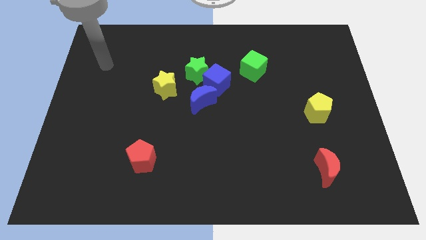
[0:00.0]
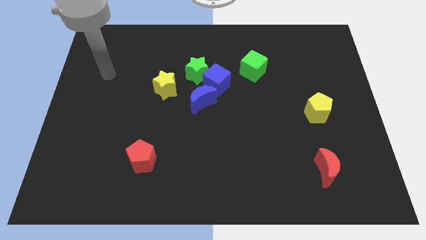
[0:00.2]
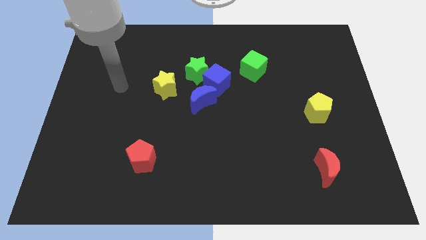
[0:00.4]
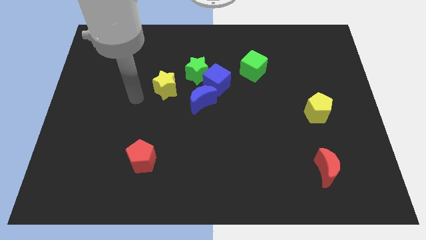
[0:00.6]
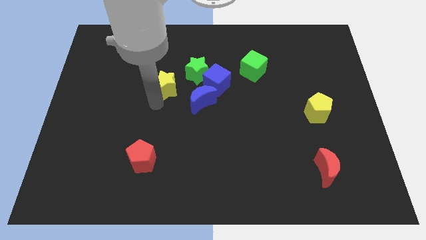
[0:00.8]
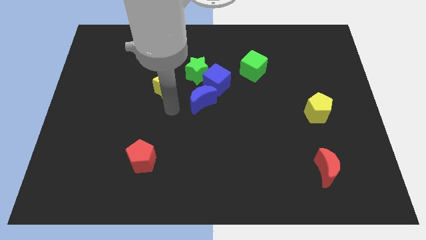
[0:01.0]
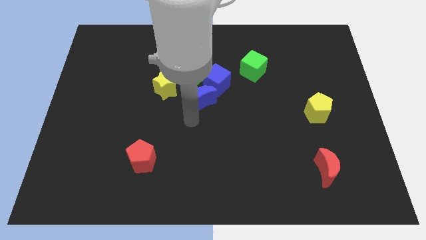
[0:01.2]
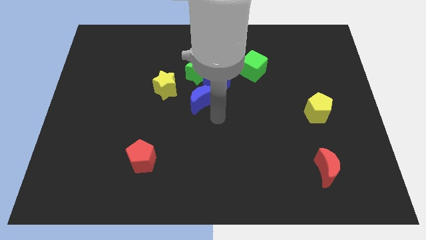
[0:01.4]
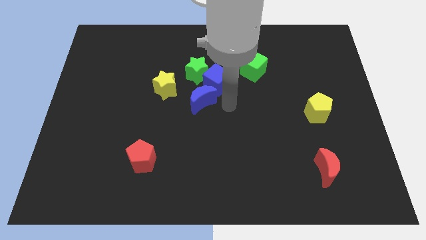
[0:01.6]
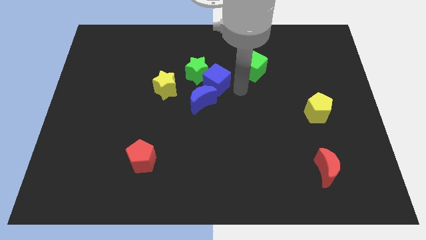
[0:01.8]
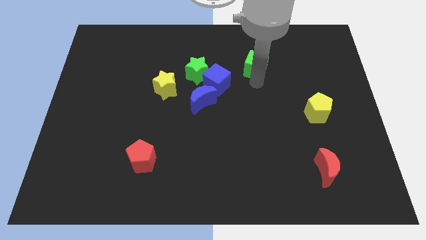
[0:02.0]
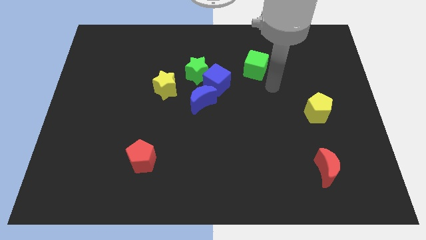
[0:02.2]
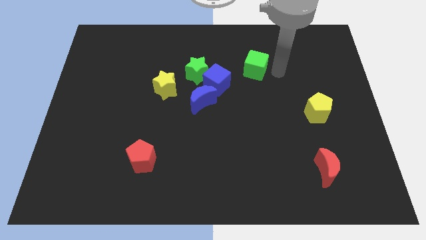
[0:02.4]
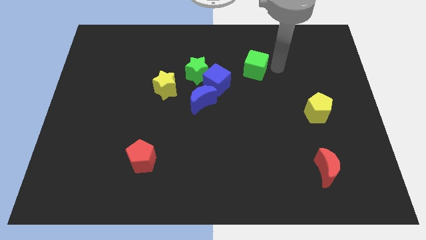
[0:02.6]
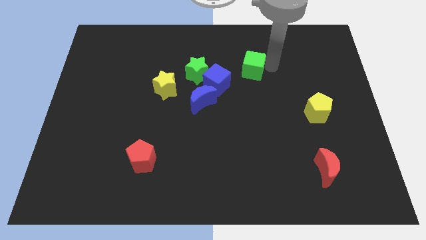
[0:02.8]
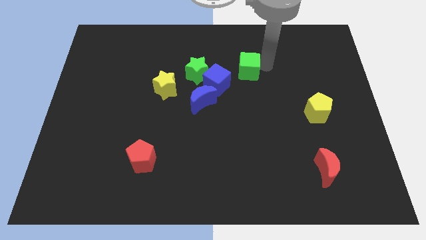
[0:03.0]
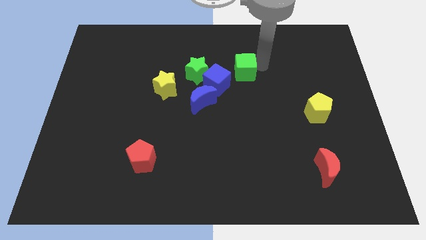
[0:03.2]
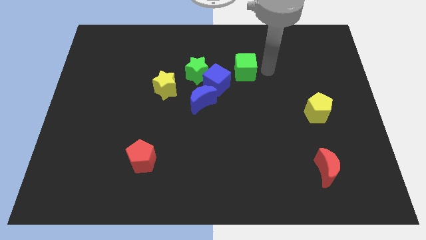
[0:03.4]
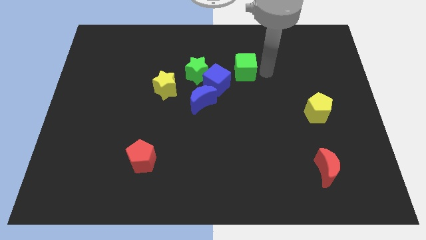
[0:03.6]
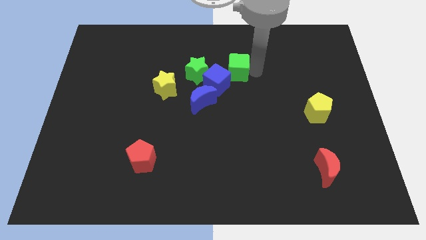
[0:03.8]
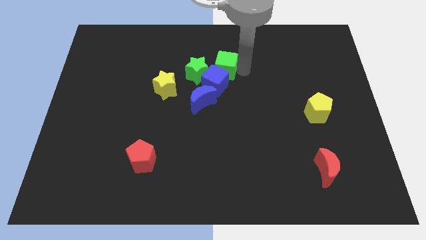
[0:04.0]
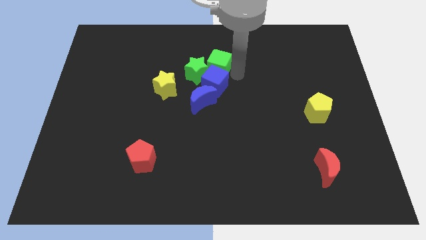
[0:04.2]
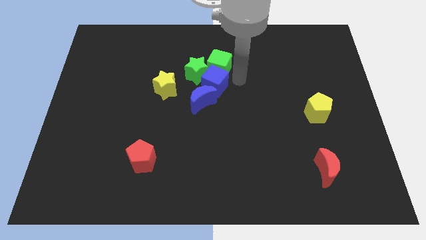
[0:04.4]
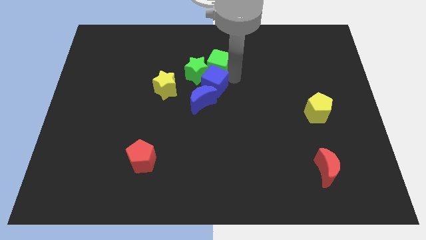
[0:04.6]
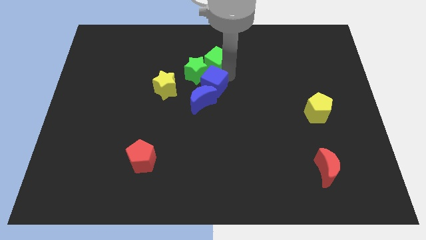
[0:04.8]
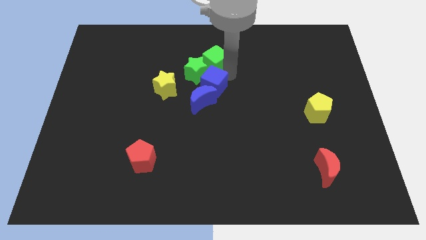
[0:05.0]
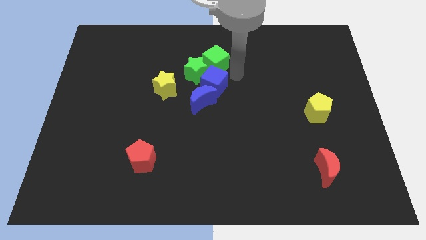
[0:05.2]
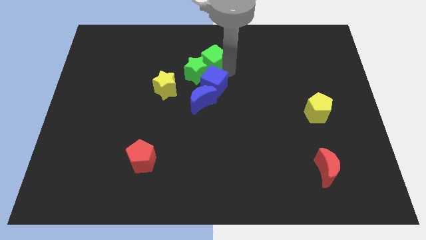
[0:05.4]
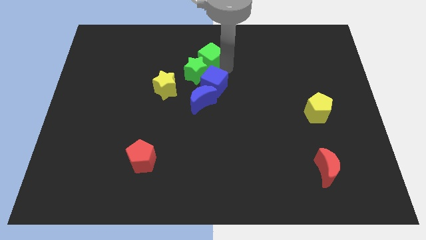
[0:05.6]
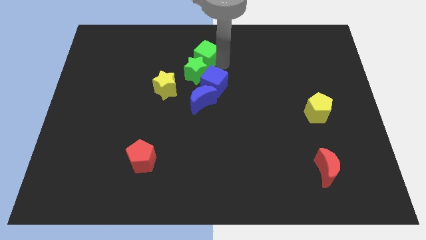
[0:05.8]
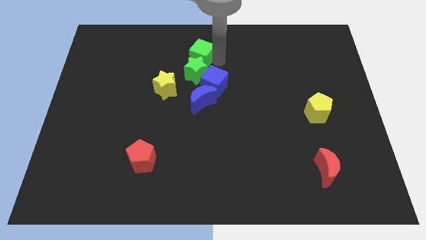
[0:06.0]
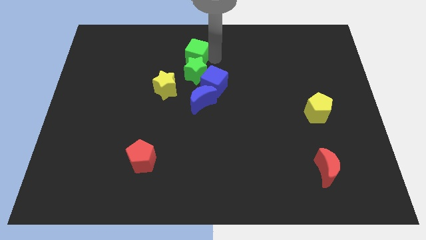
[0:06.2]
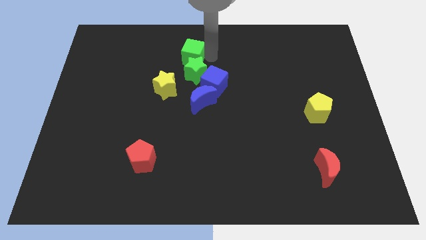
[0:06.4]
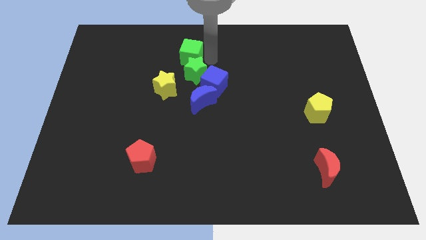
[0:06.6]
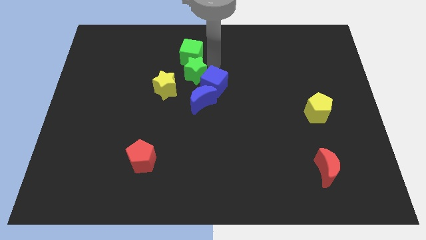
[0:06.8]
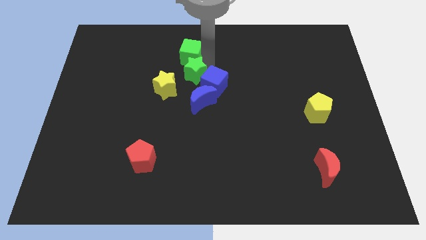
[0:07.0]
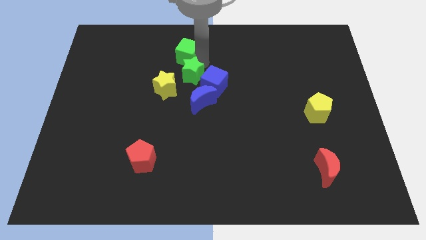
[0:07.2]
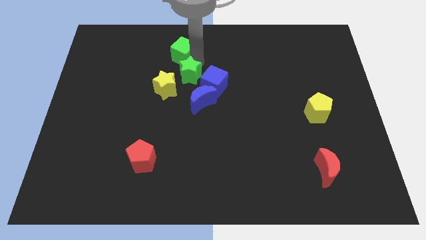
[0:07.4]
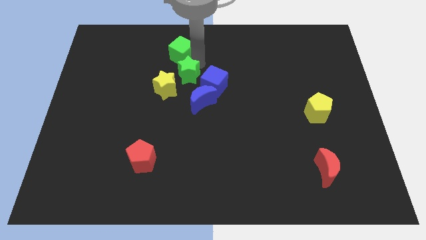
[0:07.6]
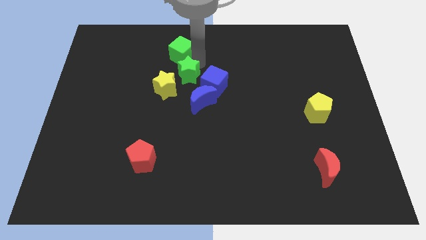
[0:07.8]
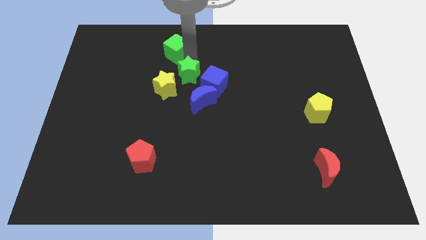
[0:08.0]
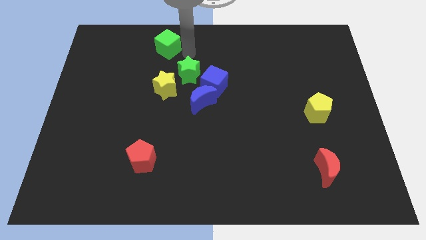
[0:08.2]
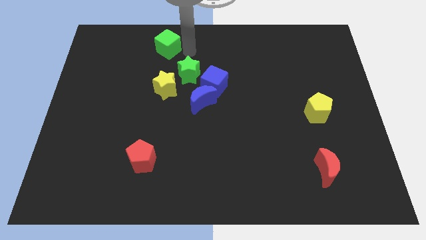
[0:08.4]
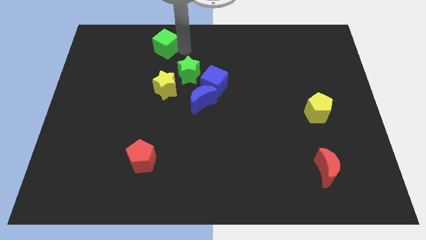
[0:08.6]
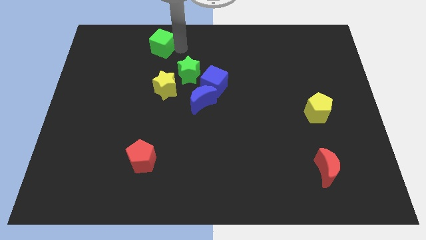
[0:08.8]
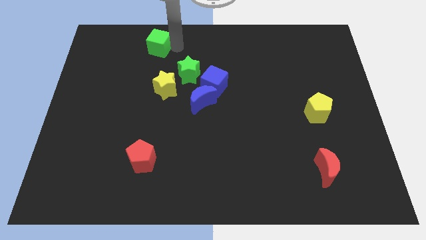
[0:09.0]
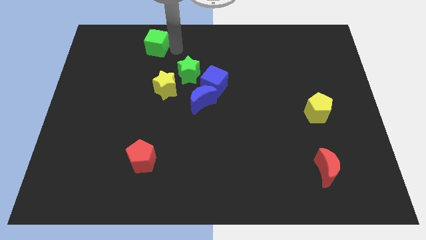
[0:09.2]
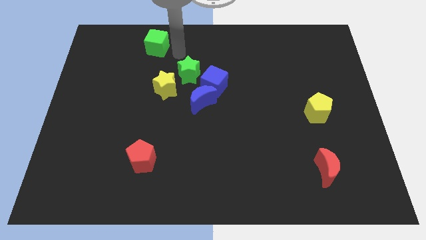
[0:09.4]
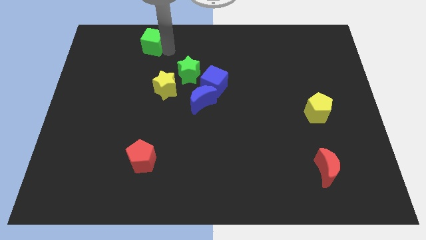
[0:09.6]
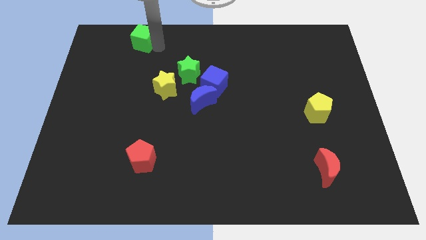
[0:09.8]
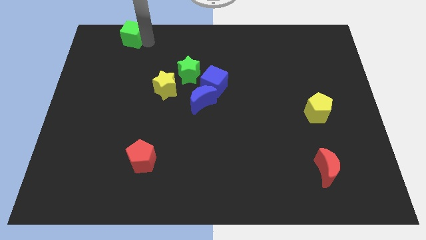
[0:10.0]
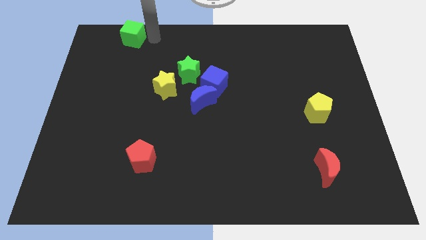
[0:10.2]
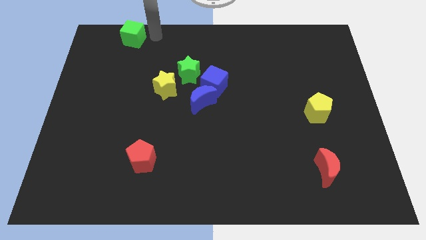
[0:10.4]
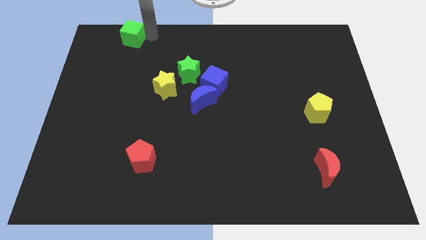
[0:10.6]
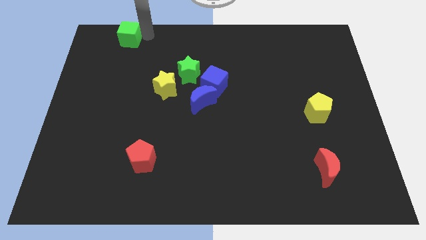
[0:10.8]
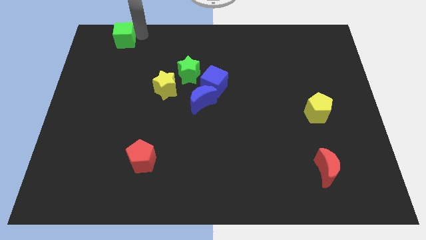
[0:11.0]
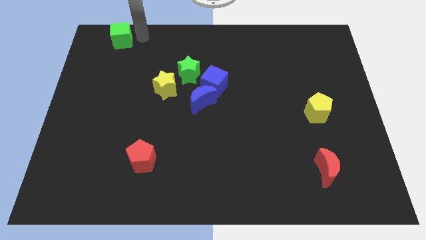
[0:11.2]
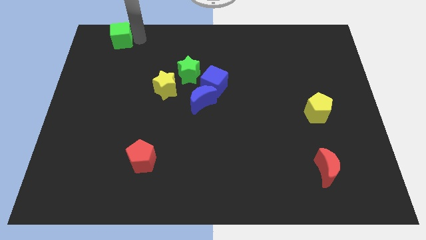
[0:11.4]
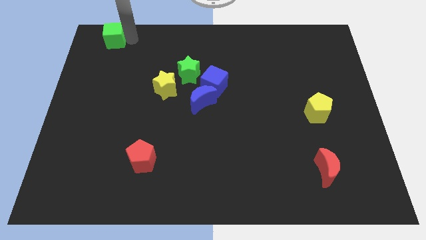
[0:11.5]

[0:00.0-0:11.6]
move the green cube to the top left of the board
